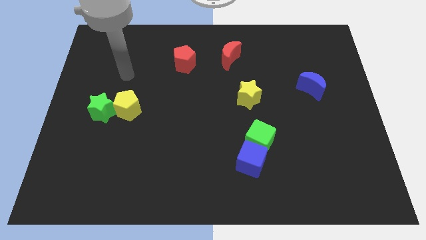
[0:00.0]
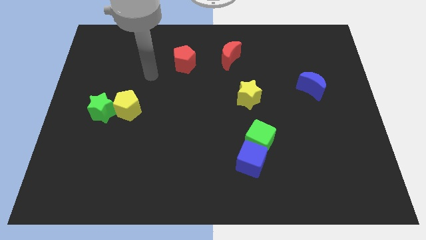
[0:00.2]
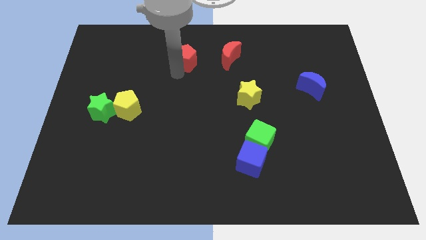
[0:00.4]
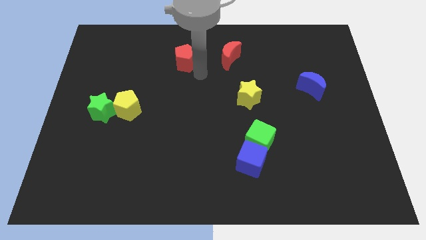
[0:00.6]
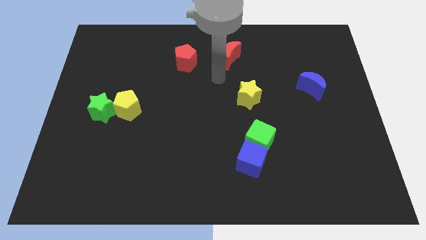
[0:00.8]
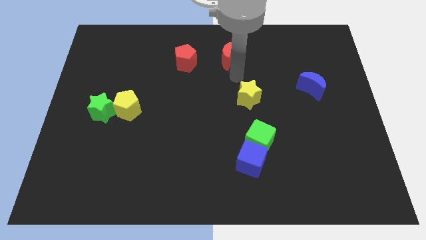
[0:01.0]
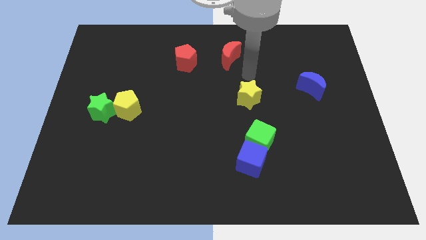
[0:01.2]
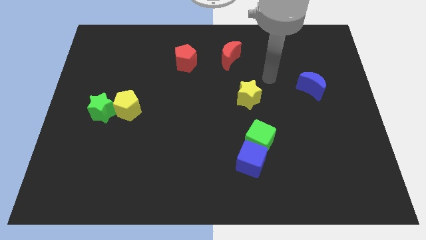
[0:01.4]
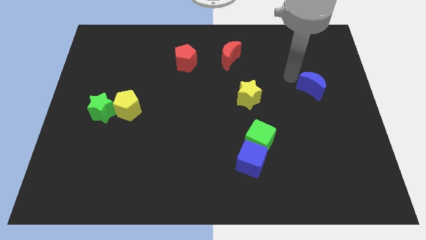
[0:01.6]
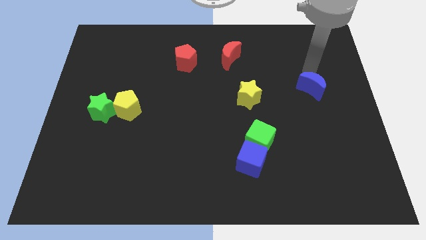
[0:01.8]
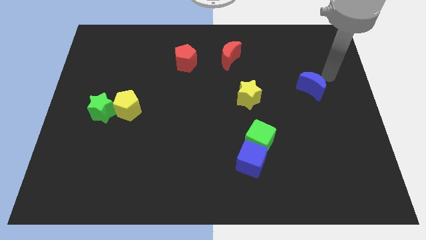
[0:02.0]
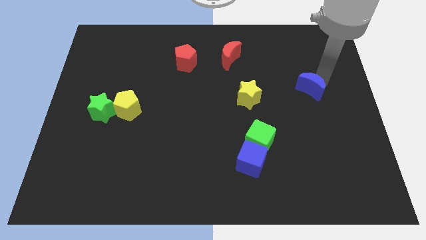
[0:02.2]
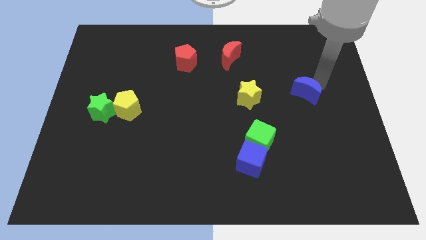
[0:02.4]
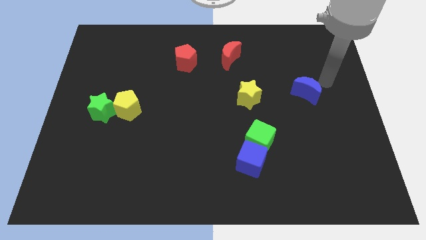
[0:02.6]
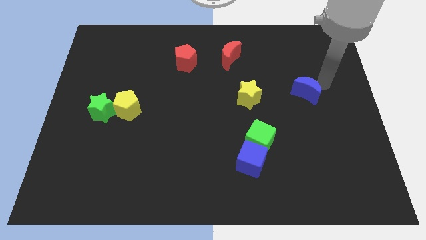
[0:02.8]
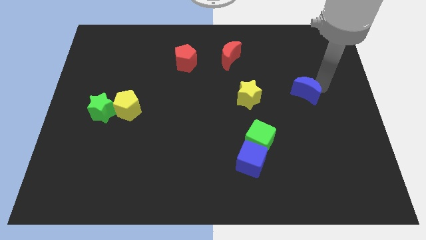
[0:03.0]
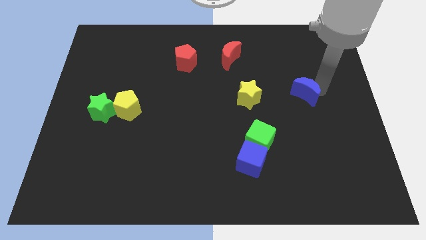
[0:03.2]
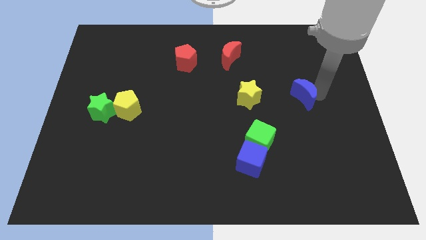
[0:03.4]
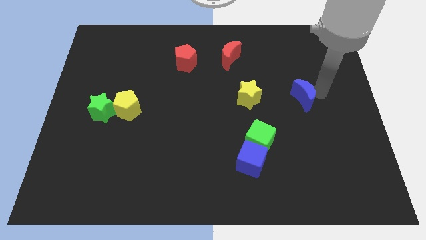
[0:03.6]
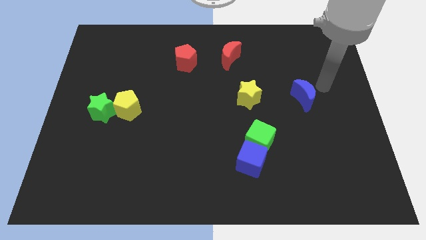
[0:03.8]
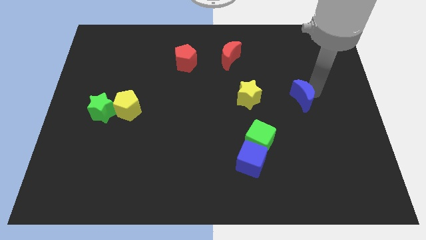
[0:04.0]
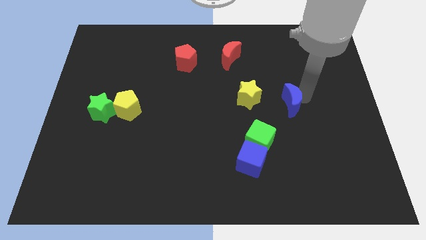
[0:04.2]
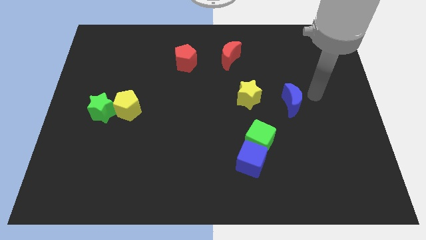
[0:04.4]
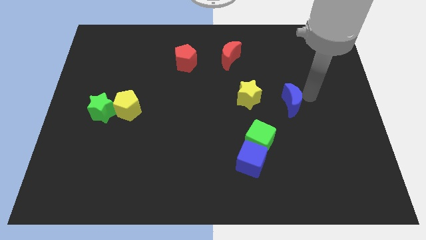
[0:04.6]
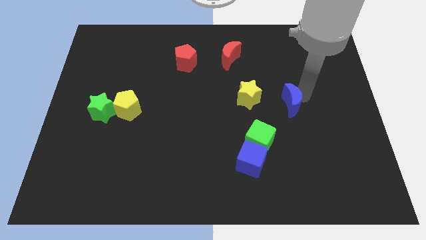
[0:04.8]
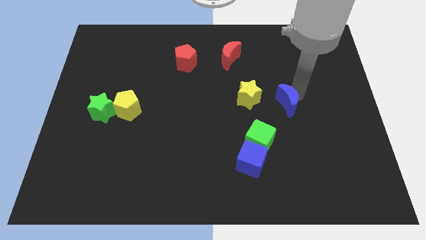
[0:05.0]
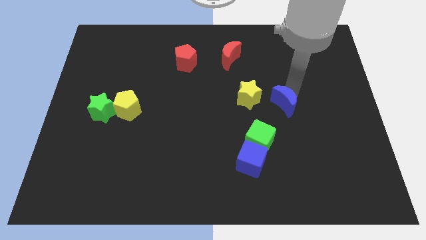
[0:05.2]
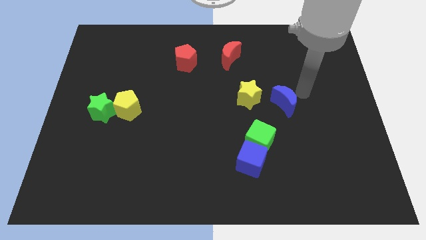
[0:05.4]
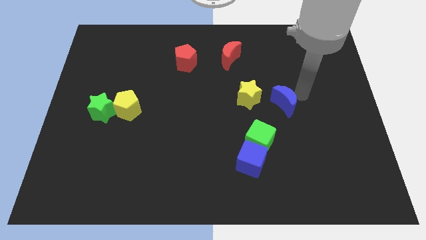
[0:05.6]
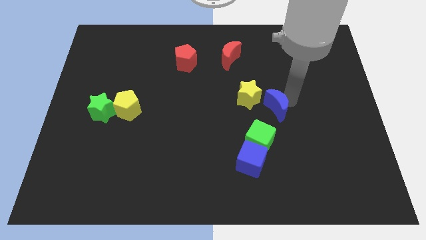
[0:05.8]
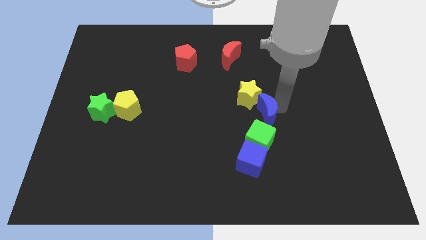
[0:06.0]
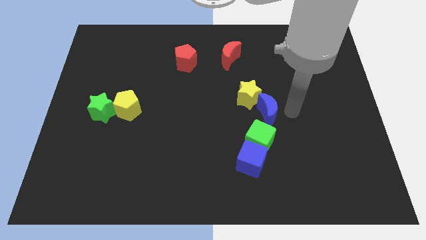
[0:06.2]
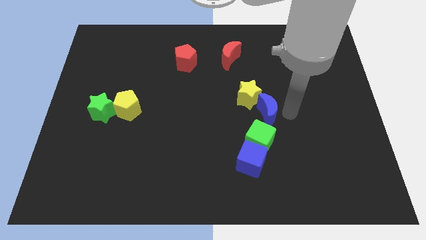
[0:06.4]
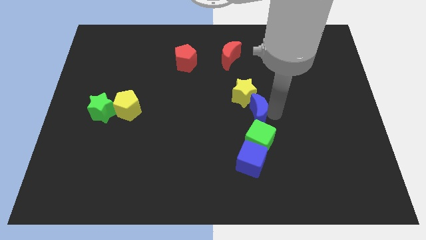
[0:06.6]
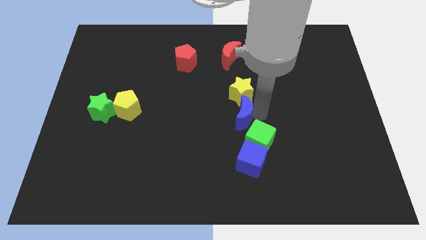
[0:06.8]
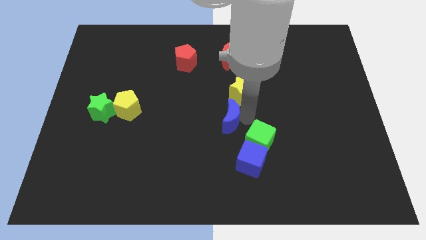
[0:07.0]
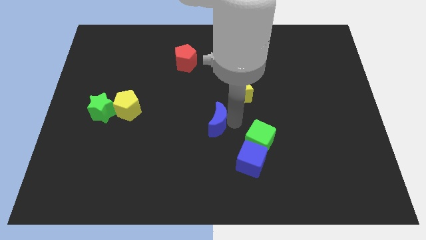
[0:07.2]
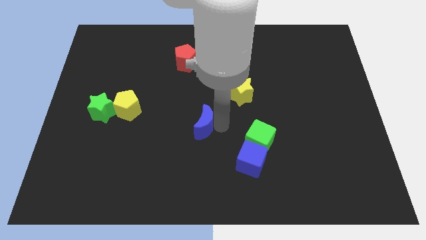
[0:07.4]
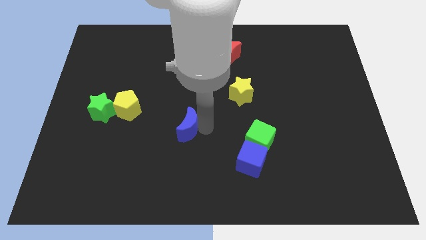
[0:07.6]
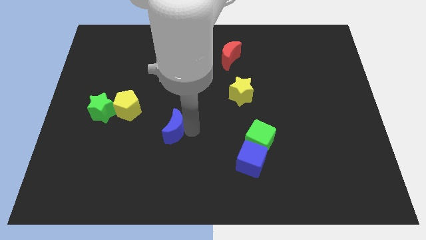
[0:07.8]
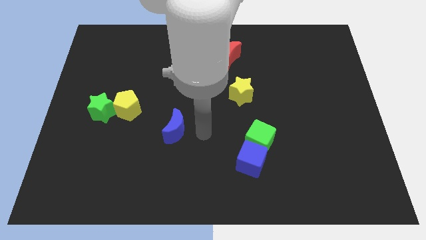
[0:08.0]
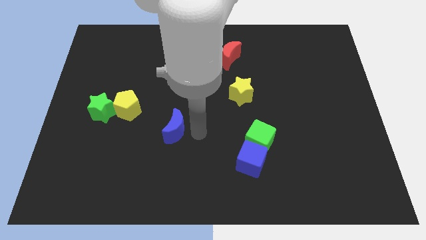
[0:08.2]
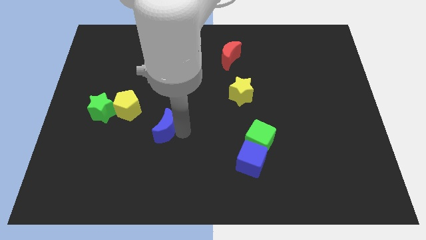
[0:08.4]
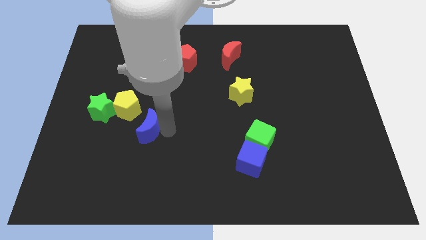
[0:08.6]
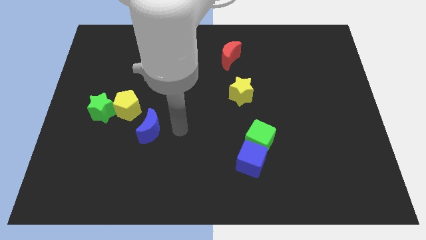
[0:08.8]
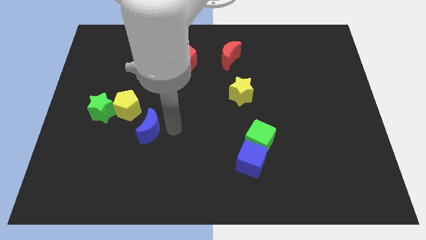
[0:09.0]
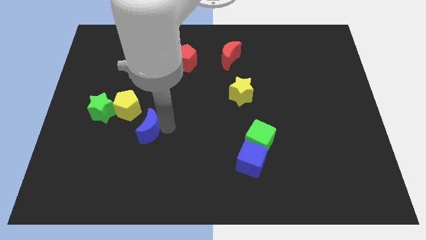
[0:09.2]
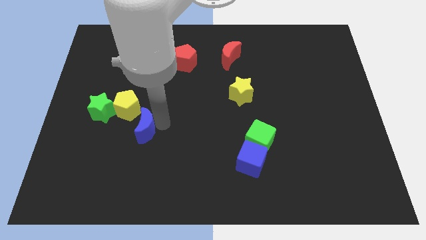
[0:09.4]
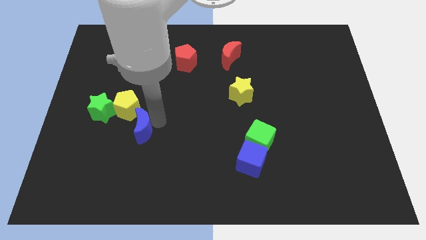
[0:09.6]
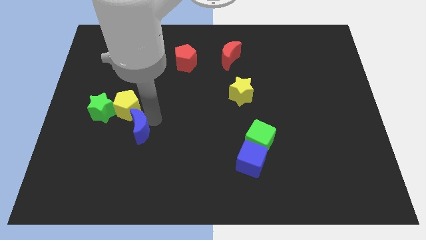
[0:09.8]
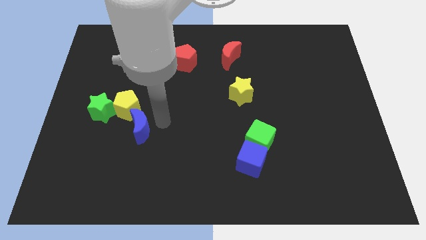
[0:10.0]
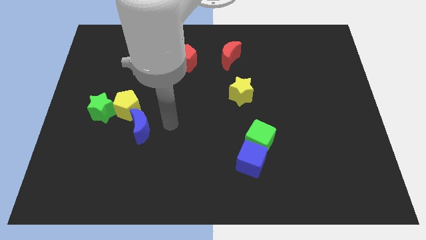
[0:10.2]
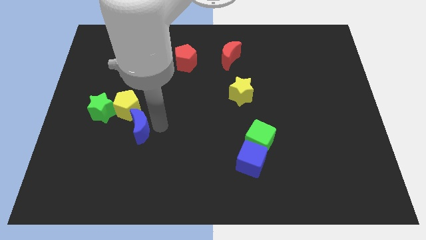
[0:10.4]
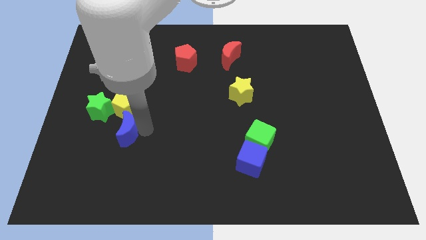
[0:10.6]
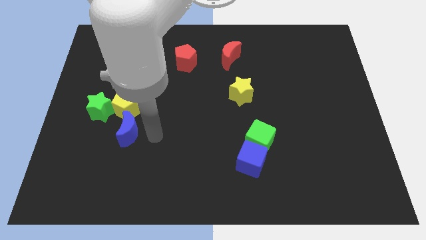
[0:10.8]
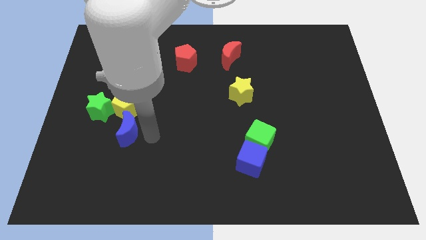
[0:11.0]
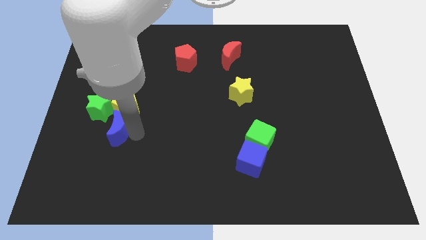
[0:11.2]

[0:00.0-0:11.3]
put the blue moon to the bottom left of the yellow pentagon

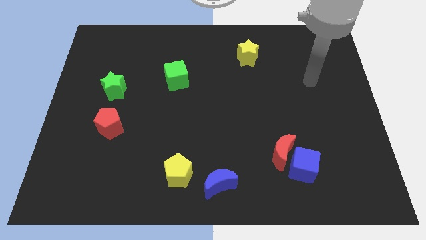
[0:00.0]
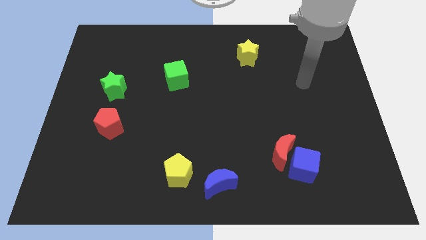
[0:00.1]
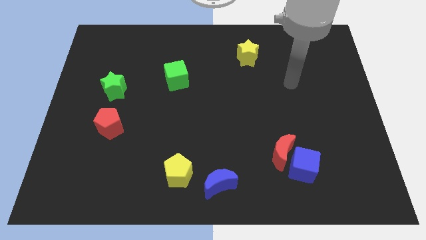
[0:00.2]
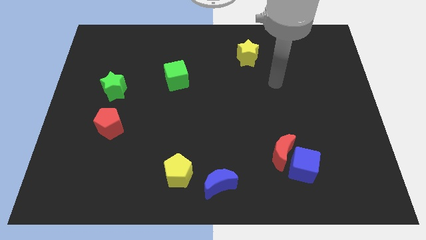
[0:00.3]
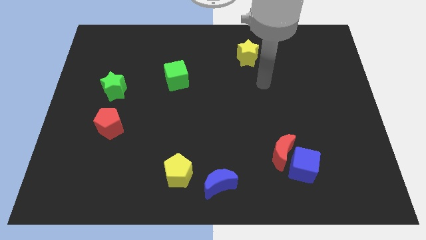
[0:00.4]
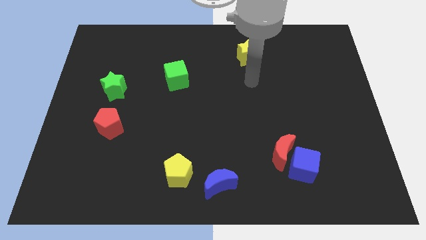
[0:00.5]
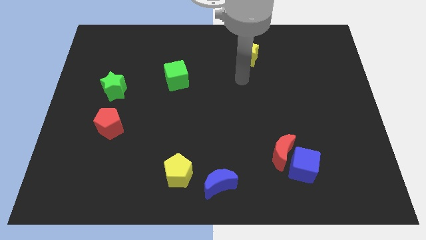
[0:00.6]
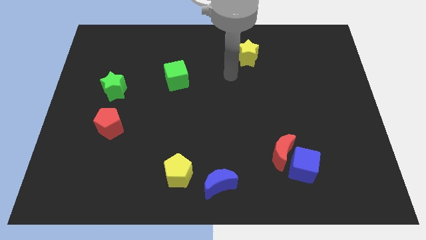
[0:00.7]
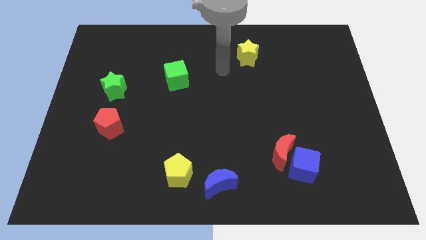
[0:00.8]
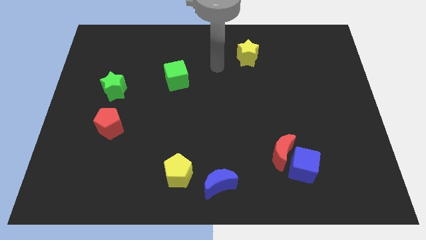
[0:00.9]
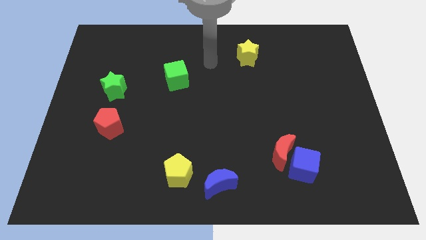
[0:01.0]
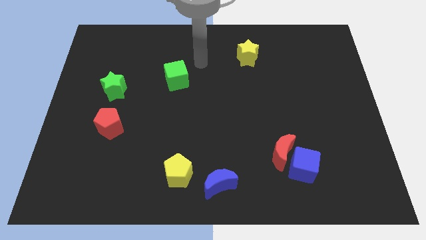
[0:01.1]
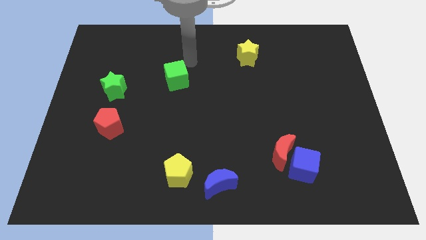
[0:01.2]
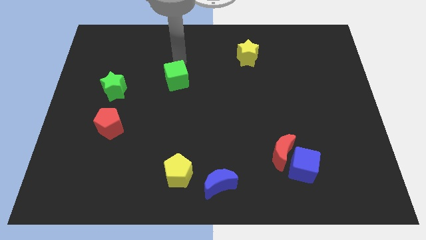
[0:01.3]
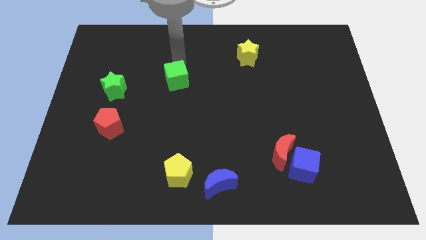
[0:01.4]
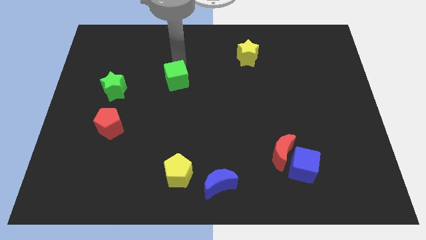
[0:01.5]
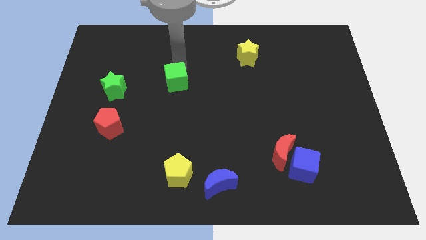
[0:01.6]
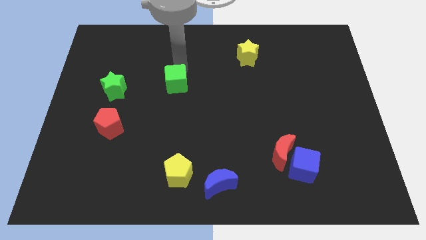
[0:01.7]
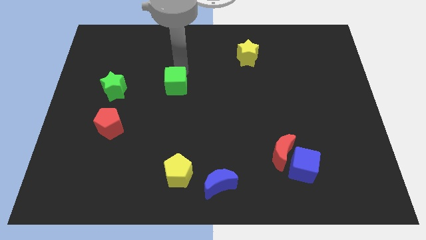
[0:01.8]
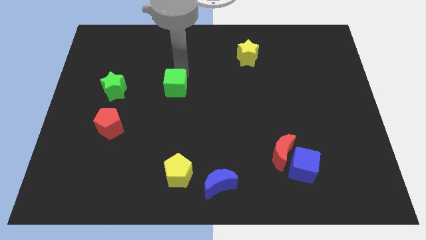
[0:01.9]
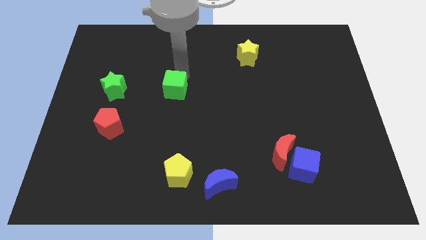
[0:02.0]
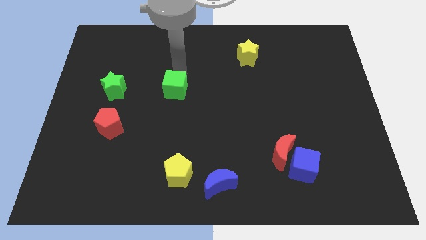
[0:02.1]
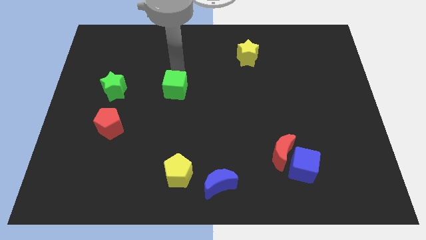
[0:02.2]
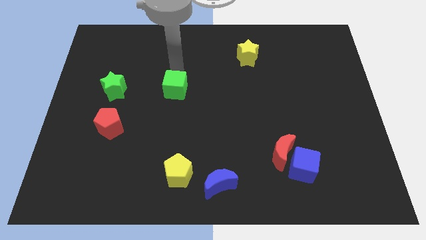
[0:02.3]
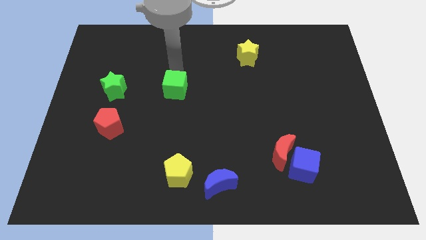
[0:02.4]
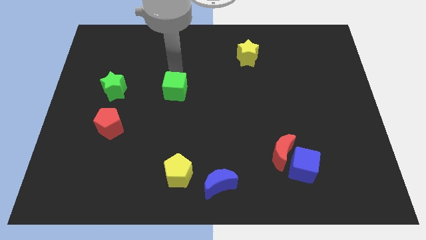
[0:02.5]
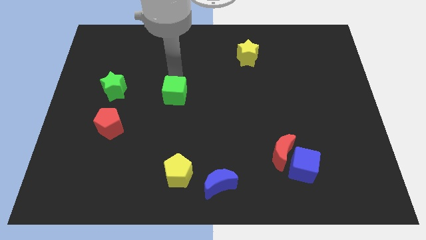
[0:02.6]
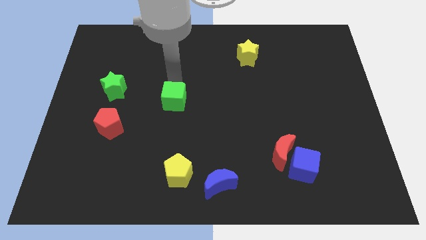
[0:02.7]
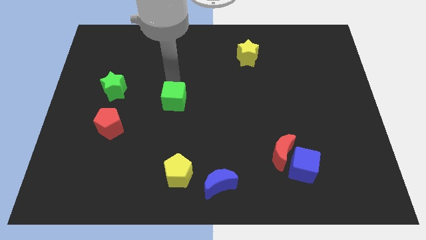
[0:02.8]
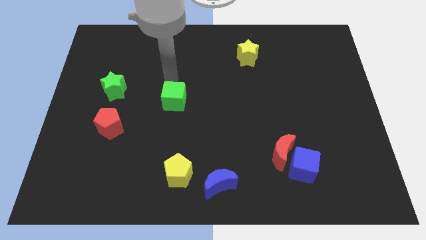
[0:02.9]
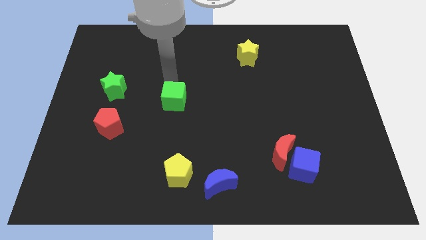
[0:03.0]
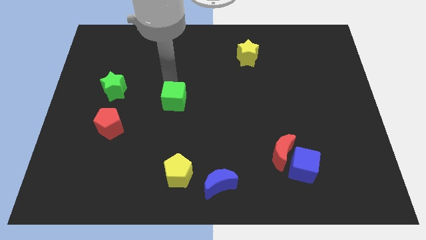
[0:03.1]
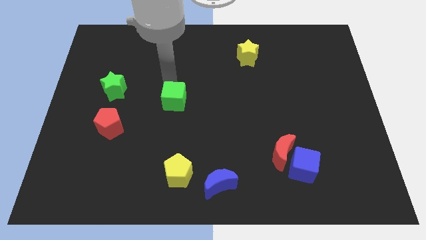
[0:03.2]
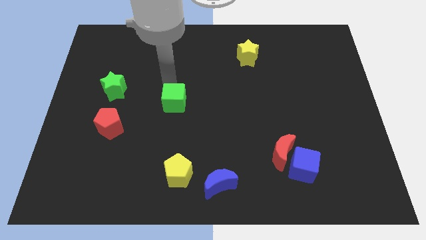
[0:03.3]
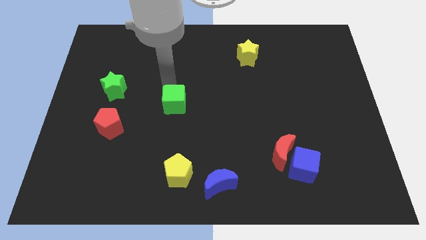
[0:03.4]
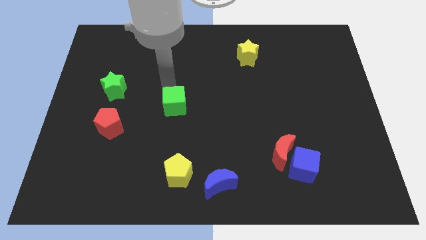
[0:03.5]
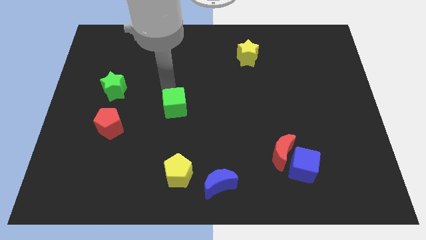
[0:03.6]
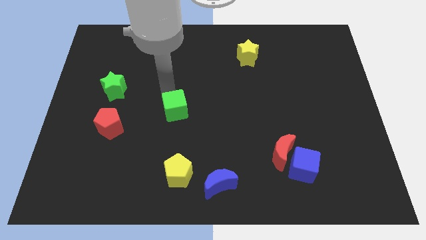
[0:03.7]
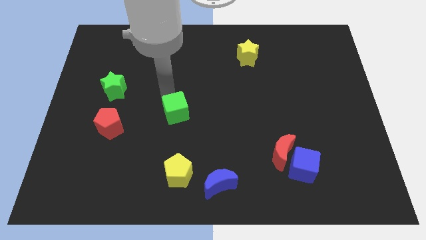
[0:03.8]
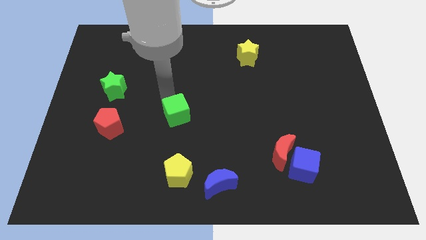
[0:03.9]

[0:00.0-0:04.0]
push the green cube to the top of the yellow pentagon
